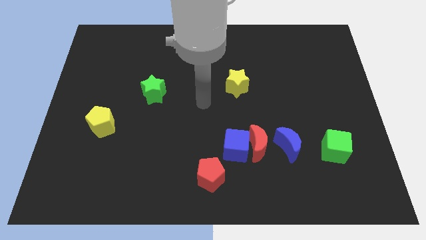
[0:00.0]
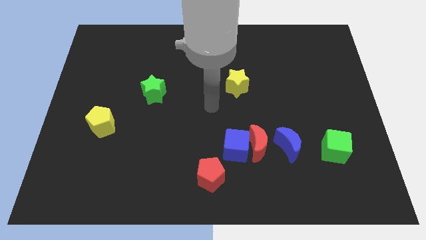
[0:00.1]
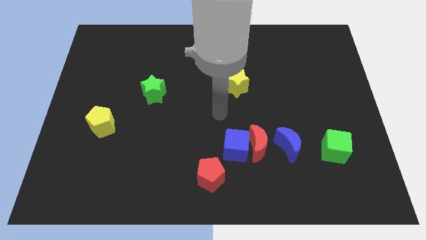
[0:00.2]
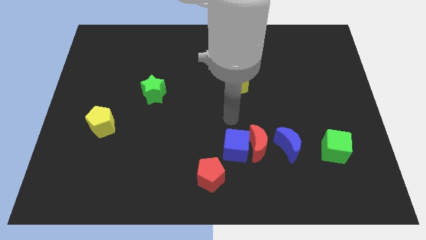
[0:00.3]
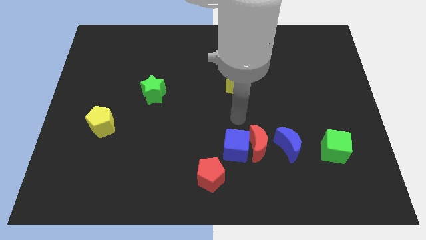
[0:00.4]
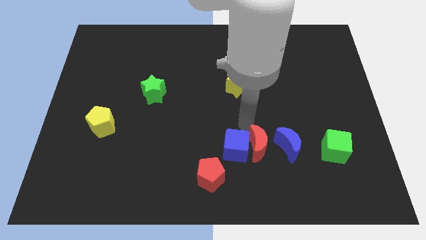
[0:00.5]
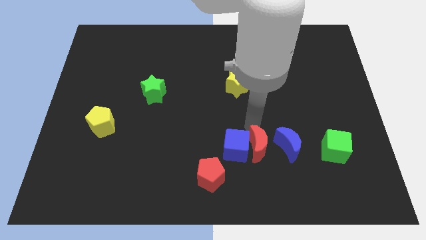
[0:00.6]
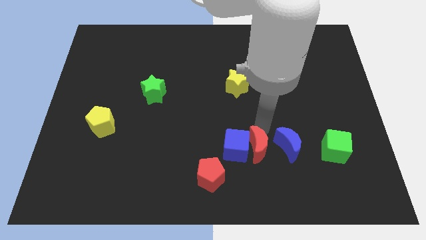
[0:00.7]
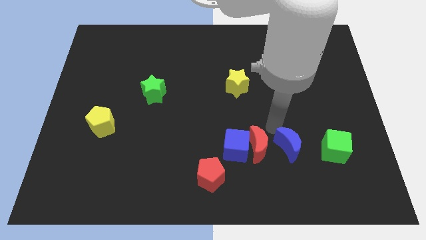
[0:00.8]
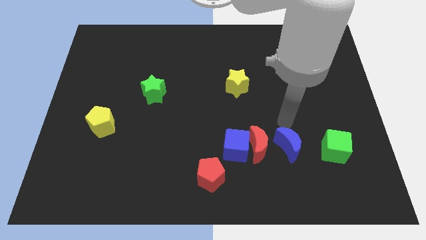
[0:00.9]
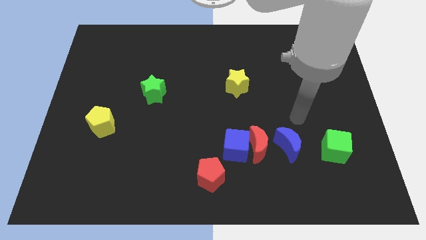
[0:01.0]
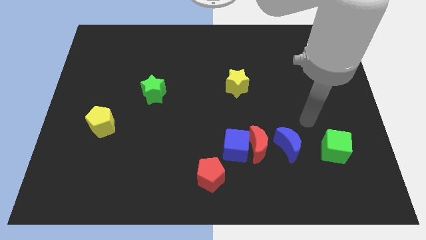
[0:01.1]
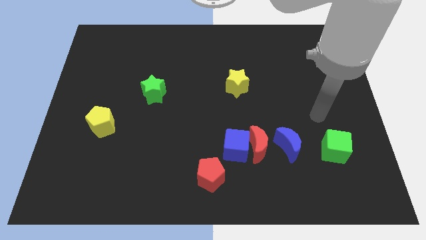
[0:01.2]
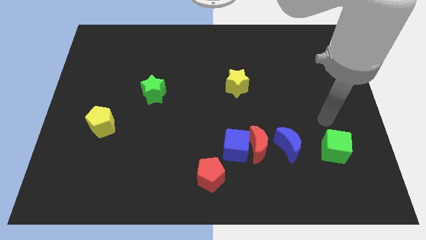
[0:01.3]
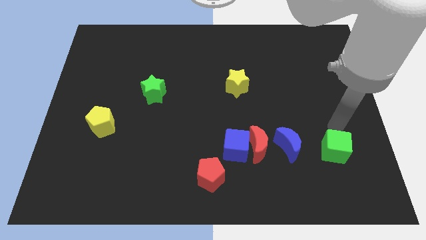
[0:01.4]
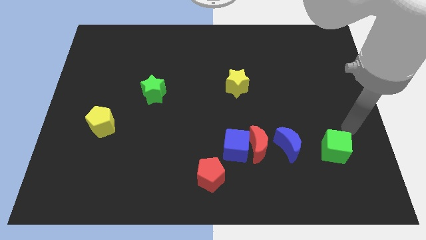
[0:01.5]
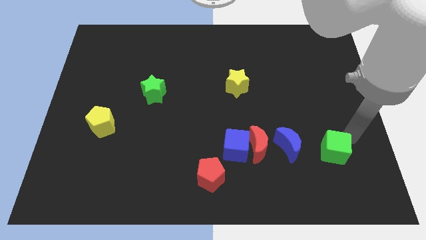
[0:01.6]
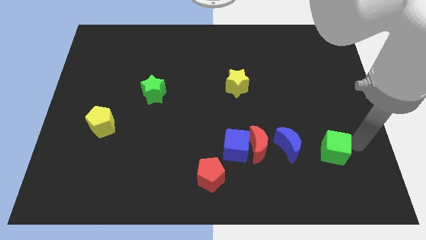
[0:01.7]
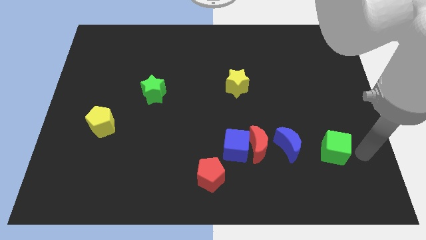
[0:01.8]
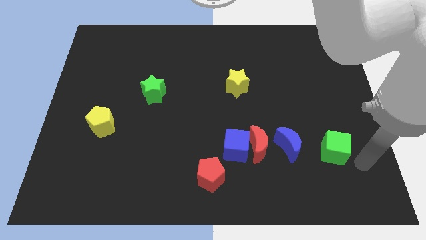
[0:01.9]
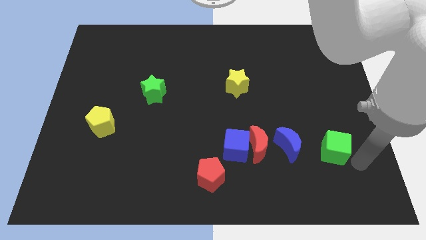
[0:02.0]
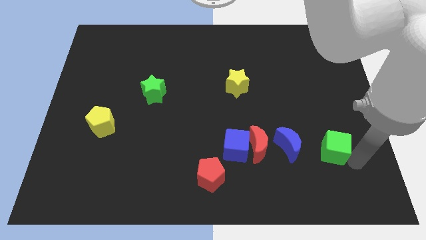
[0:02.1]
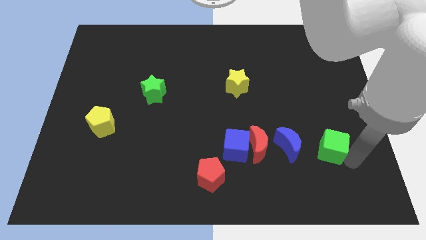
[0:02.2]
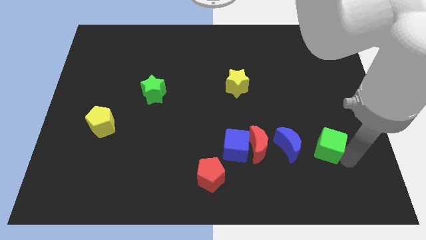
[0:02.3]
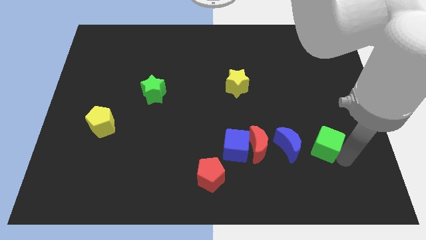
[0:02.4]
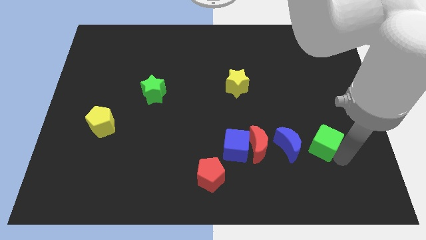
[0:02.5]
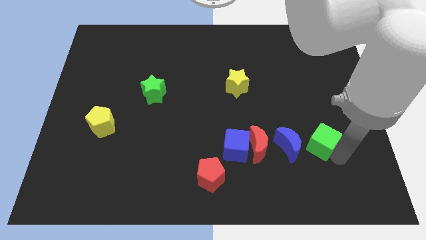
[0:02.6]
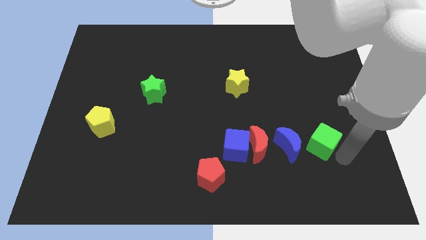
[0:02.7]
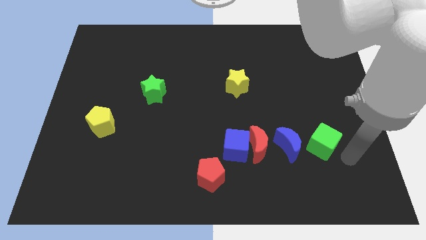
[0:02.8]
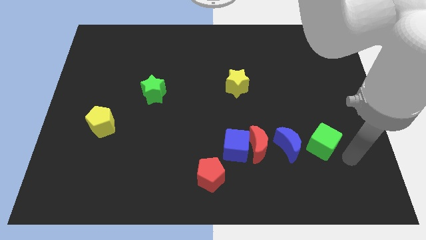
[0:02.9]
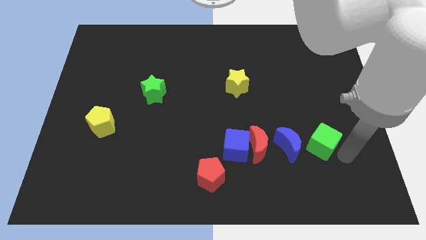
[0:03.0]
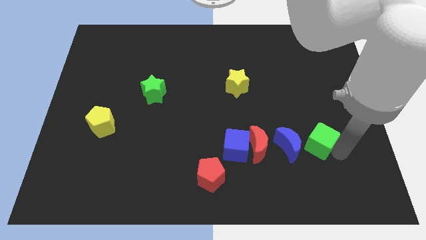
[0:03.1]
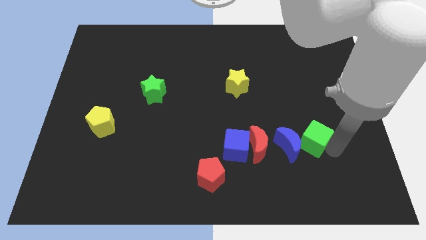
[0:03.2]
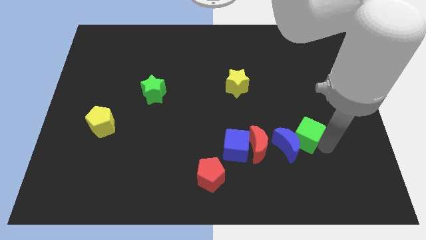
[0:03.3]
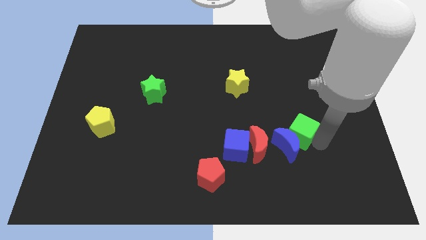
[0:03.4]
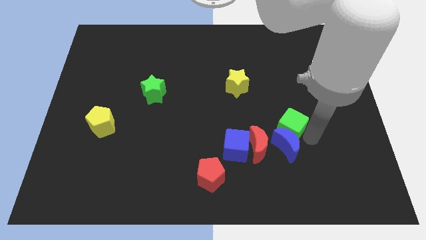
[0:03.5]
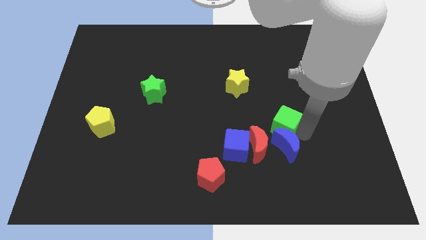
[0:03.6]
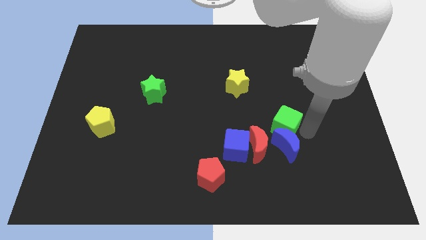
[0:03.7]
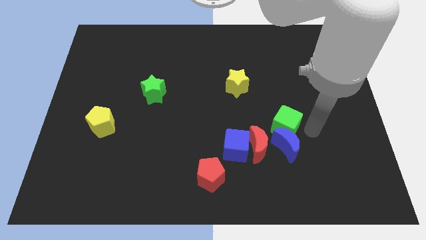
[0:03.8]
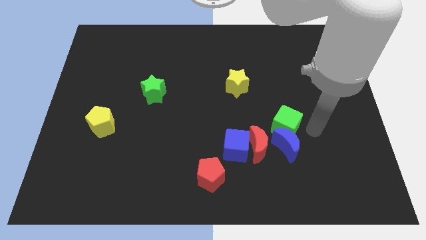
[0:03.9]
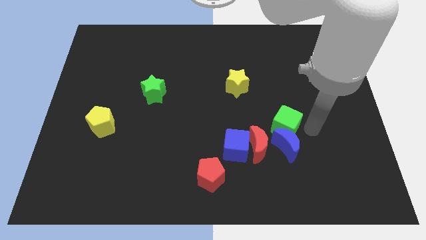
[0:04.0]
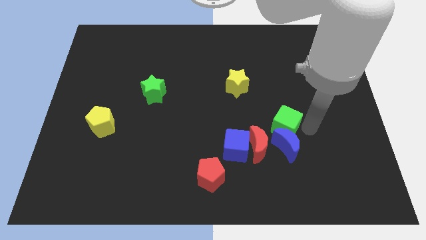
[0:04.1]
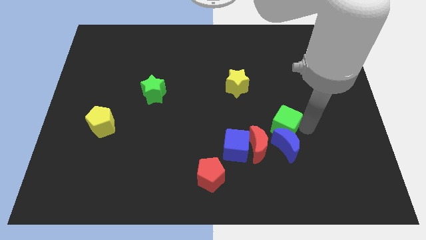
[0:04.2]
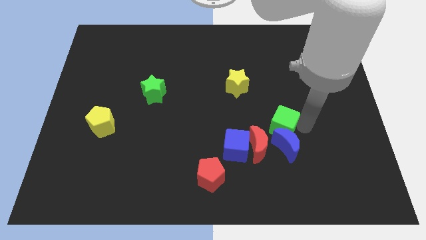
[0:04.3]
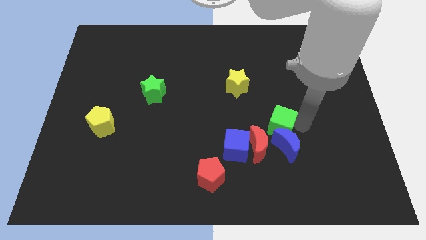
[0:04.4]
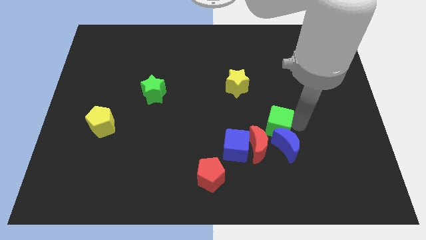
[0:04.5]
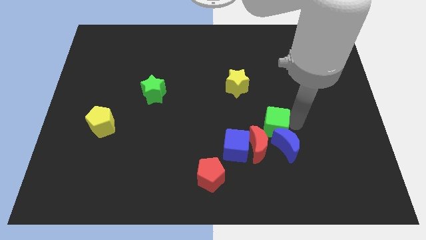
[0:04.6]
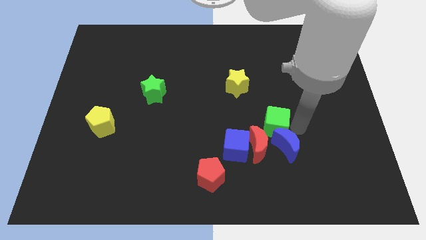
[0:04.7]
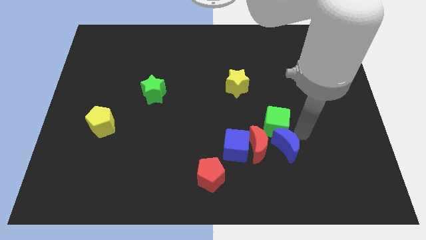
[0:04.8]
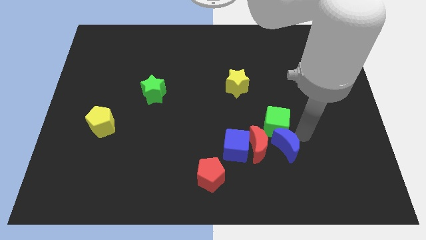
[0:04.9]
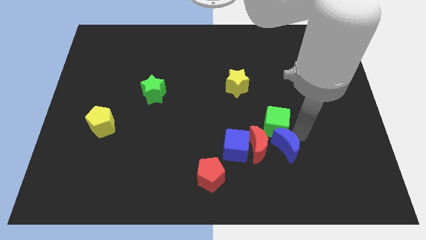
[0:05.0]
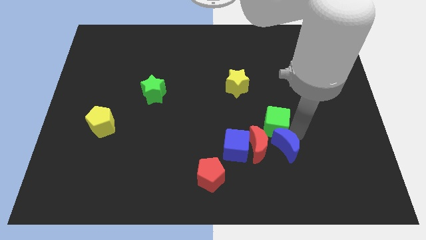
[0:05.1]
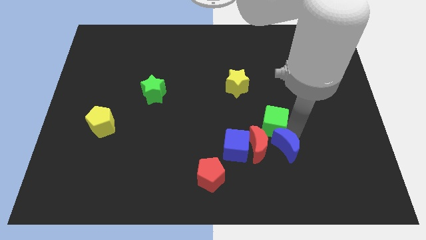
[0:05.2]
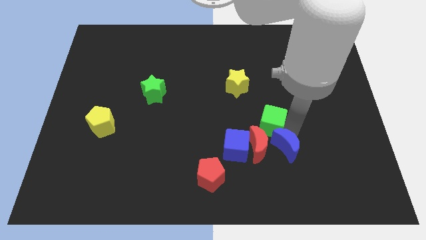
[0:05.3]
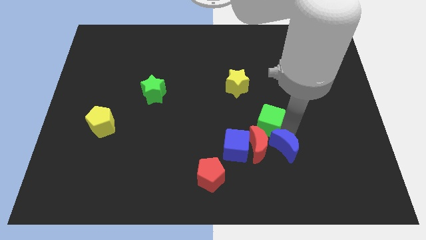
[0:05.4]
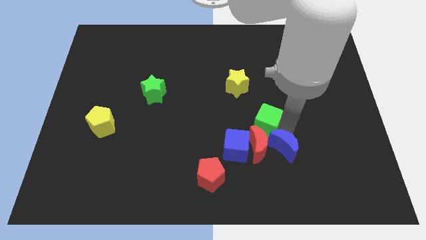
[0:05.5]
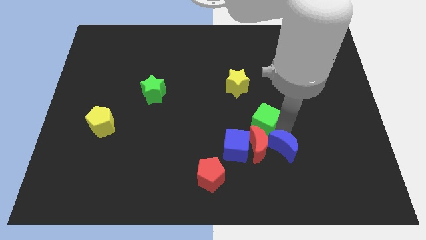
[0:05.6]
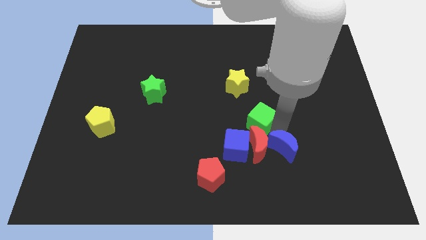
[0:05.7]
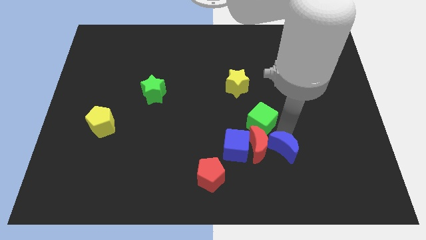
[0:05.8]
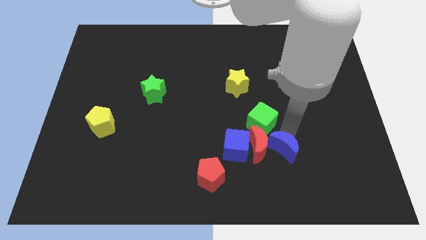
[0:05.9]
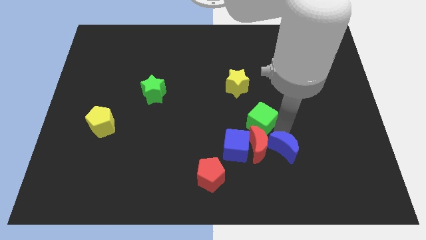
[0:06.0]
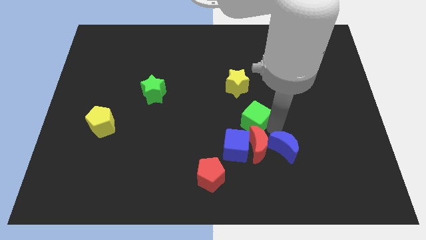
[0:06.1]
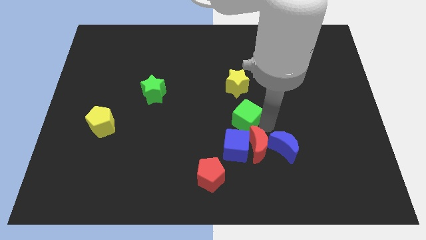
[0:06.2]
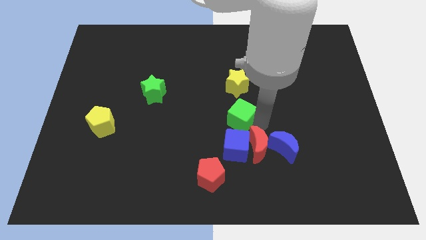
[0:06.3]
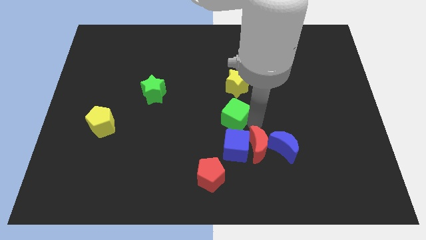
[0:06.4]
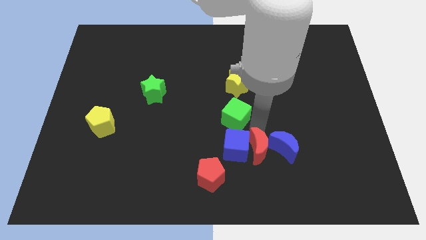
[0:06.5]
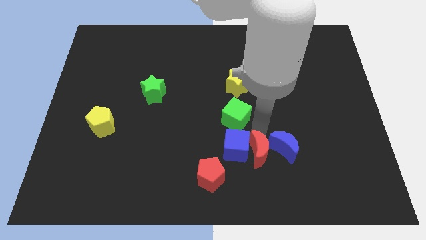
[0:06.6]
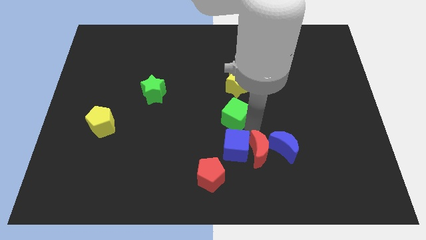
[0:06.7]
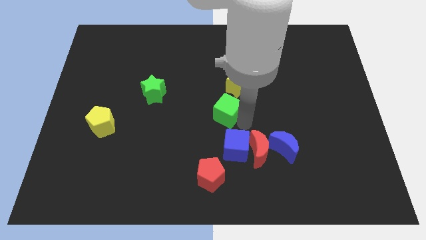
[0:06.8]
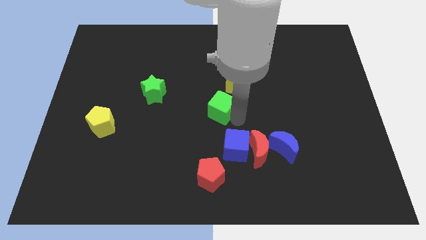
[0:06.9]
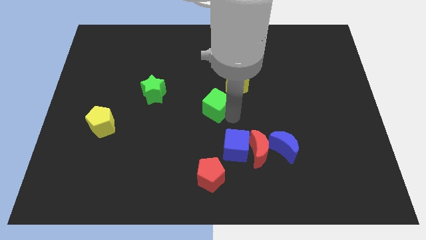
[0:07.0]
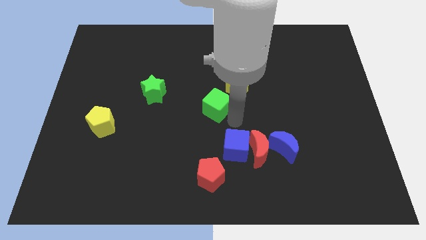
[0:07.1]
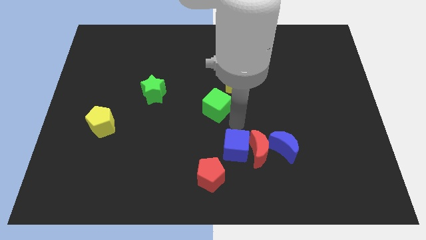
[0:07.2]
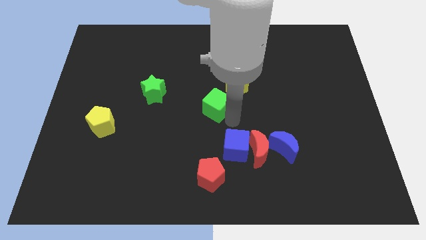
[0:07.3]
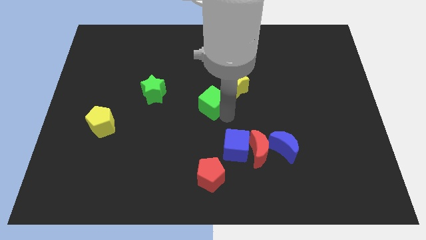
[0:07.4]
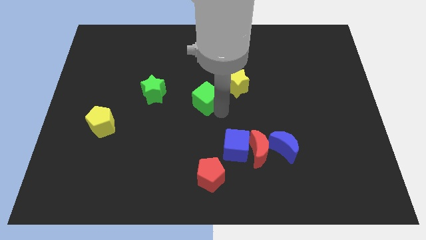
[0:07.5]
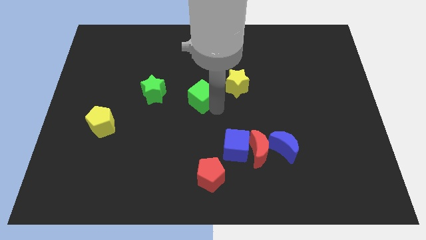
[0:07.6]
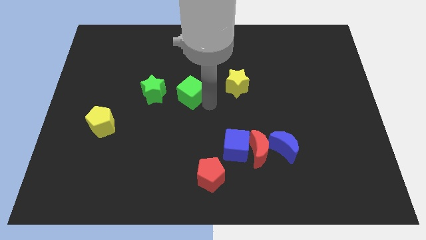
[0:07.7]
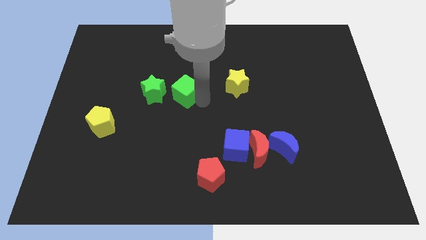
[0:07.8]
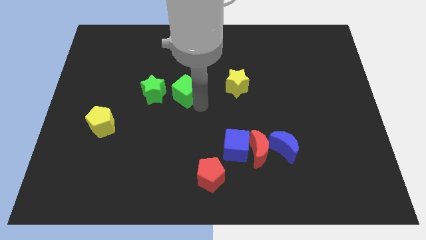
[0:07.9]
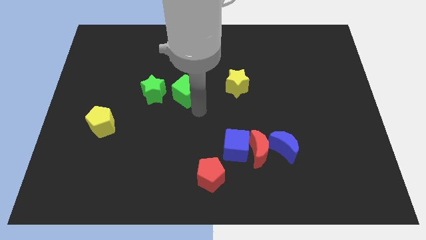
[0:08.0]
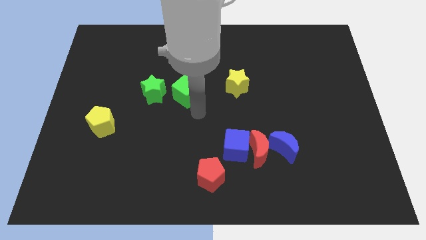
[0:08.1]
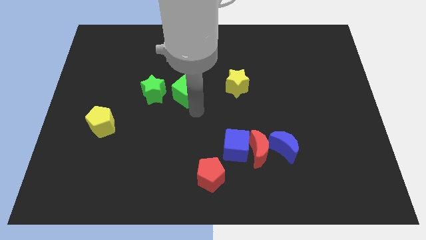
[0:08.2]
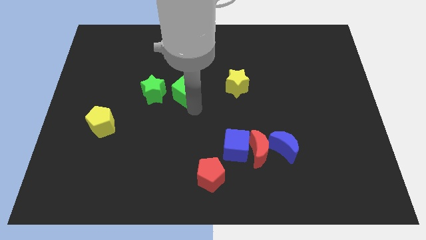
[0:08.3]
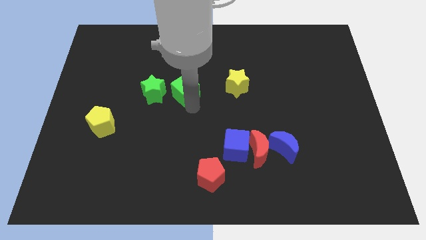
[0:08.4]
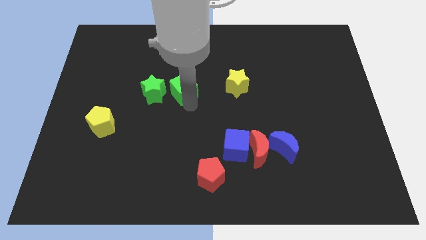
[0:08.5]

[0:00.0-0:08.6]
put the green cube to the top right side of the green star
